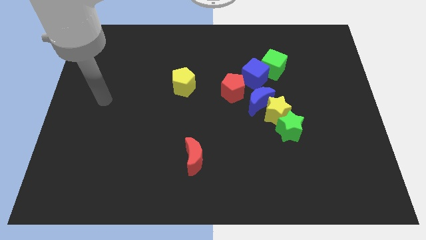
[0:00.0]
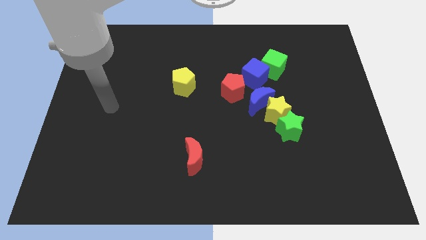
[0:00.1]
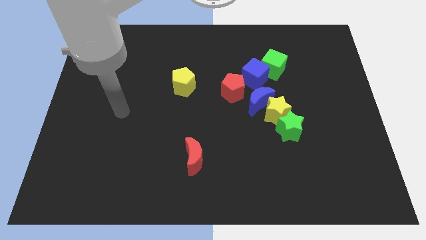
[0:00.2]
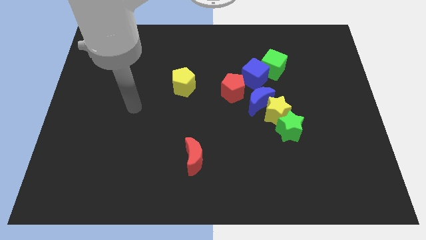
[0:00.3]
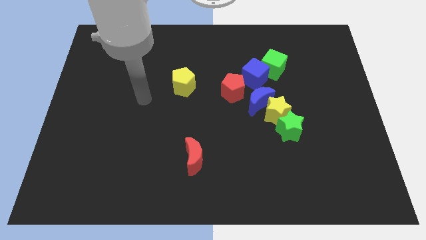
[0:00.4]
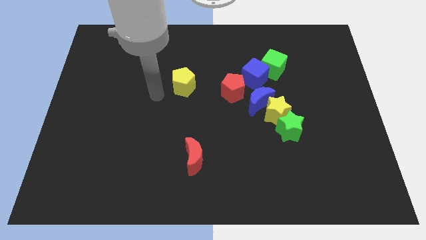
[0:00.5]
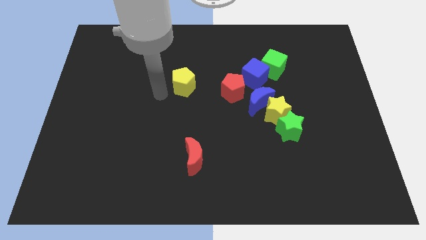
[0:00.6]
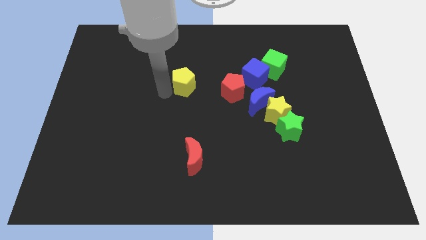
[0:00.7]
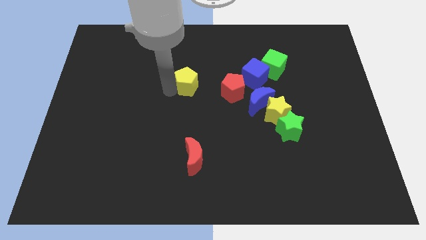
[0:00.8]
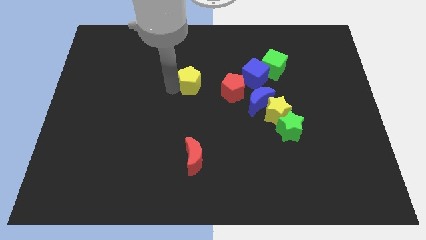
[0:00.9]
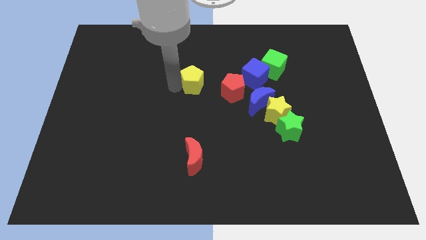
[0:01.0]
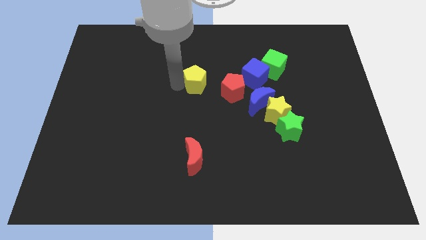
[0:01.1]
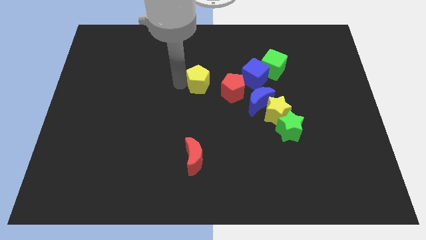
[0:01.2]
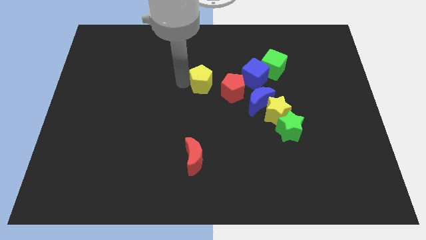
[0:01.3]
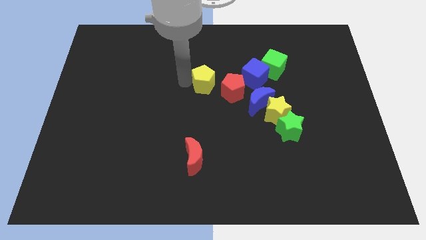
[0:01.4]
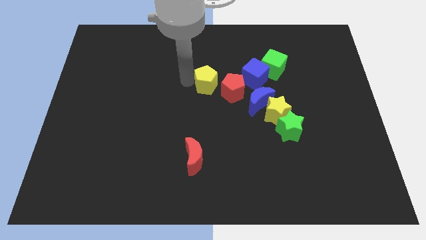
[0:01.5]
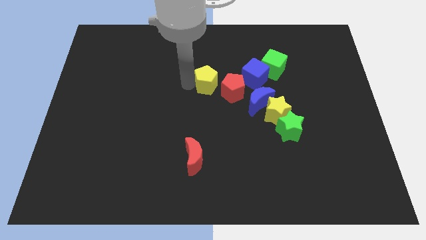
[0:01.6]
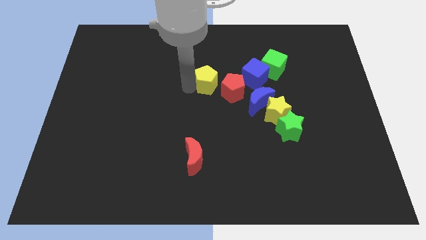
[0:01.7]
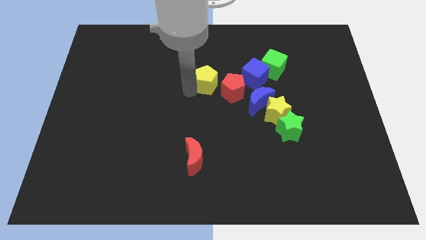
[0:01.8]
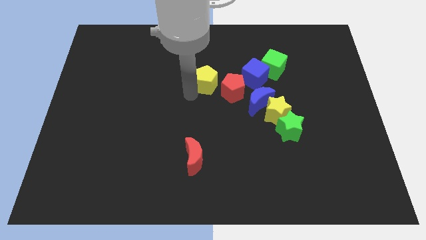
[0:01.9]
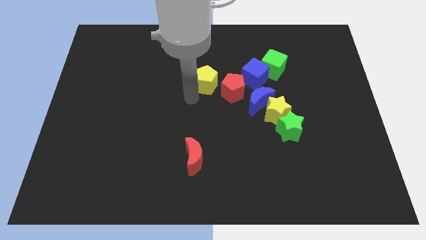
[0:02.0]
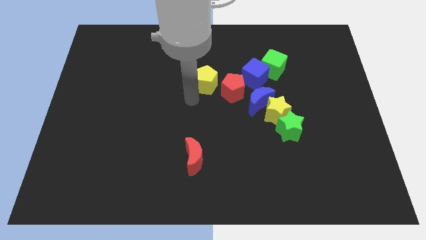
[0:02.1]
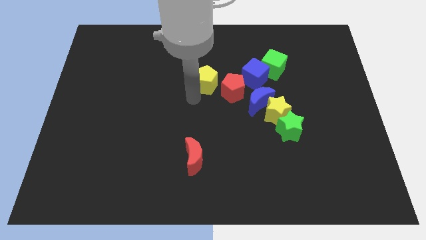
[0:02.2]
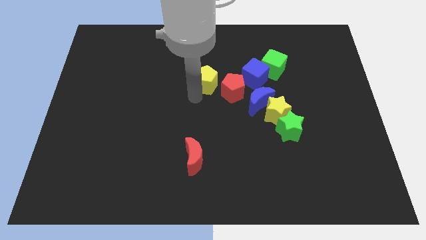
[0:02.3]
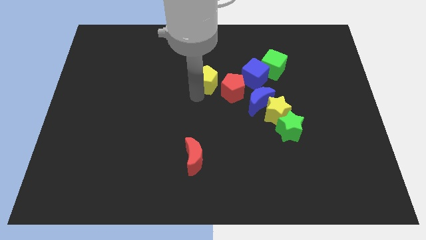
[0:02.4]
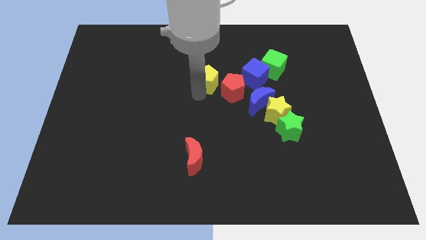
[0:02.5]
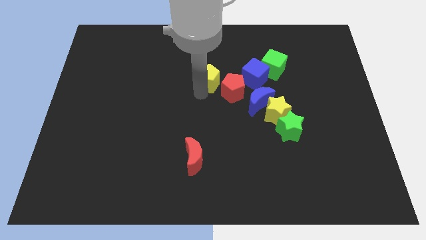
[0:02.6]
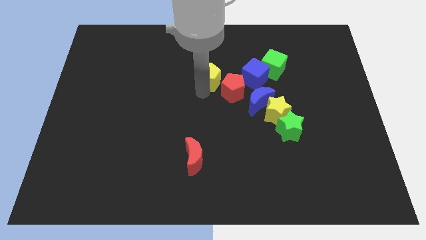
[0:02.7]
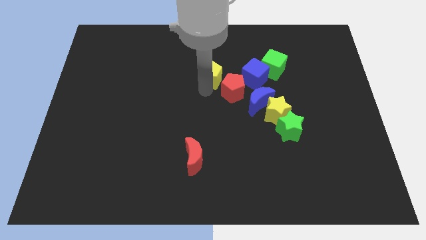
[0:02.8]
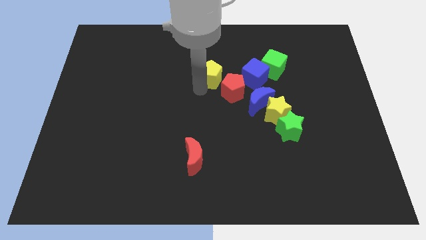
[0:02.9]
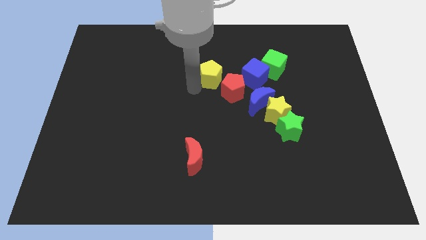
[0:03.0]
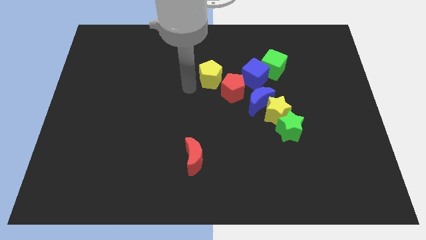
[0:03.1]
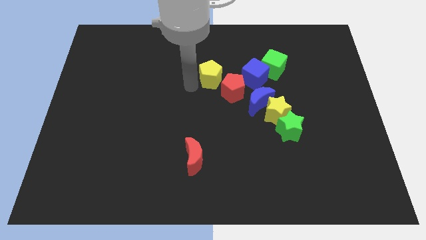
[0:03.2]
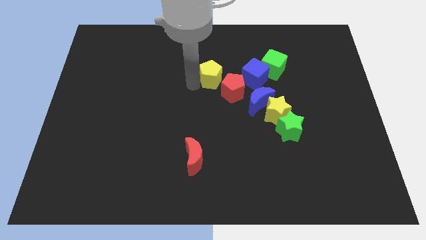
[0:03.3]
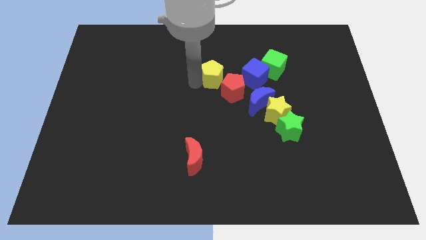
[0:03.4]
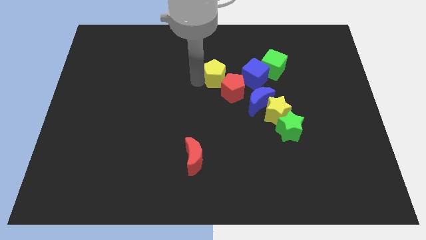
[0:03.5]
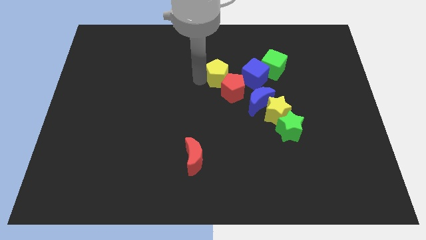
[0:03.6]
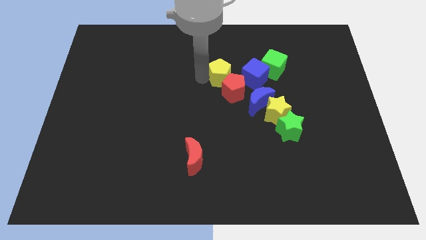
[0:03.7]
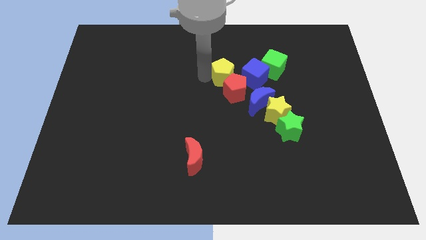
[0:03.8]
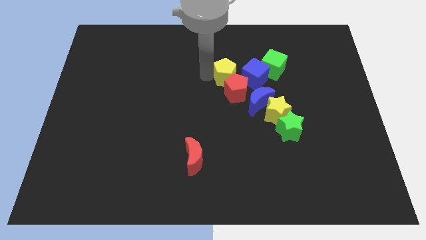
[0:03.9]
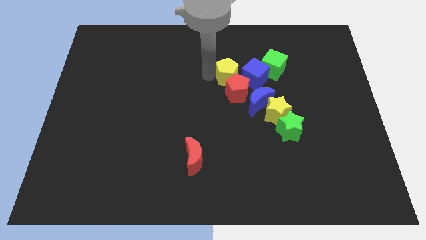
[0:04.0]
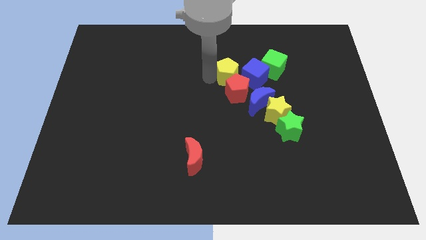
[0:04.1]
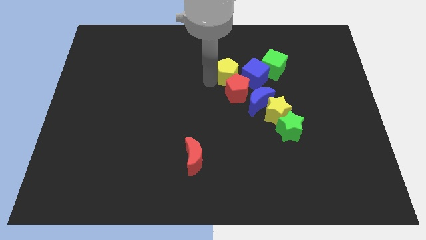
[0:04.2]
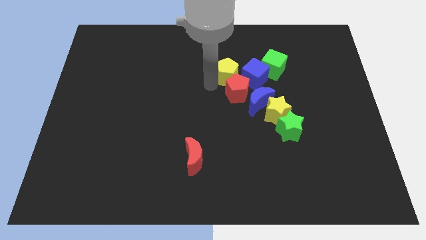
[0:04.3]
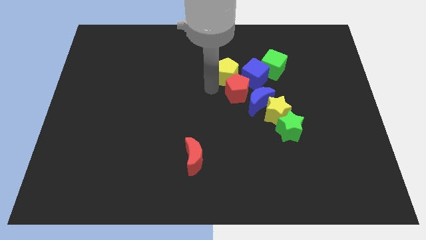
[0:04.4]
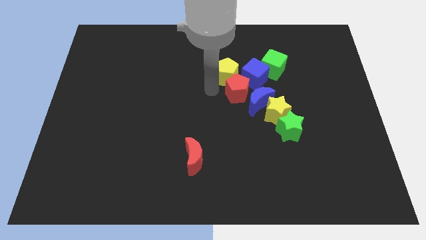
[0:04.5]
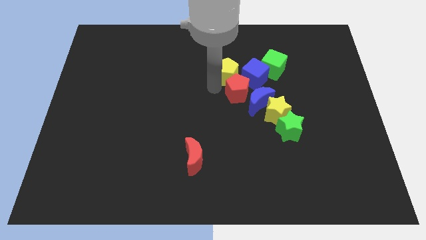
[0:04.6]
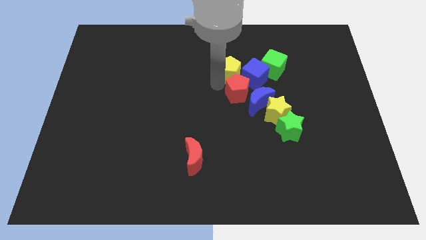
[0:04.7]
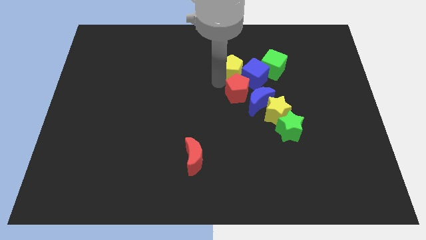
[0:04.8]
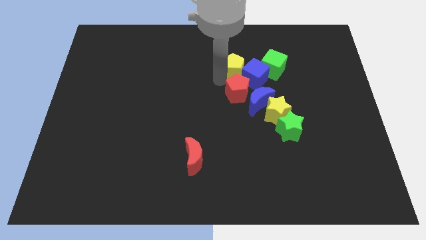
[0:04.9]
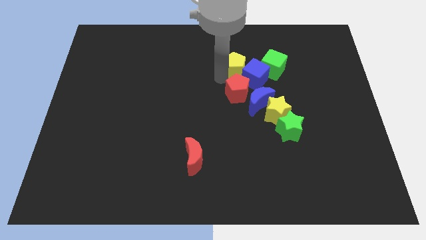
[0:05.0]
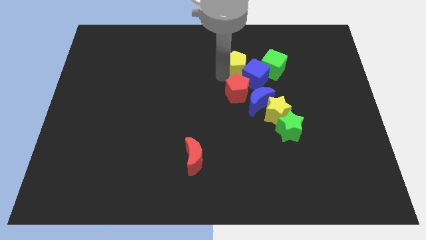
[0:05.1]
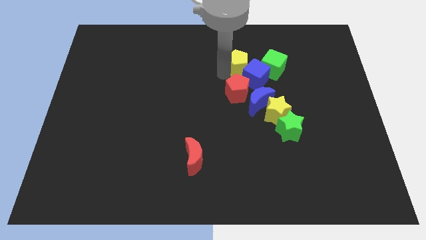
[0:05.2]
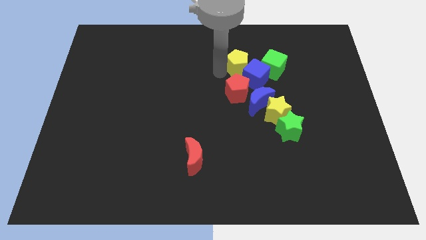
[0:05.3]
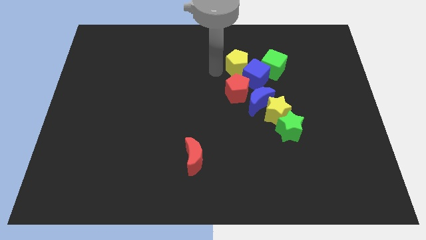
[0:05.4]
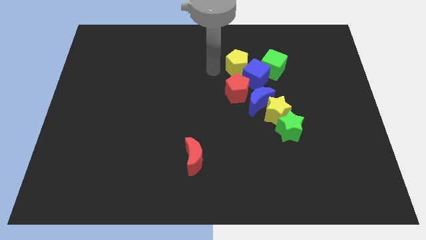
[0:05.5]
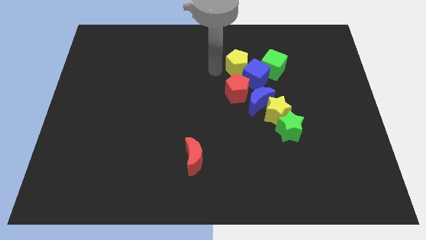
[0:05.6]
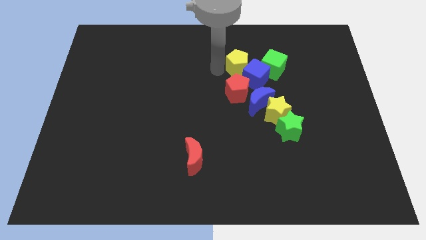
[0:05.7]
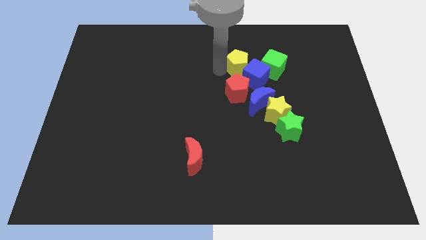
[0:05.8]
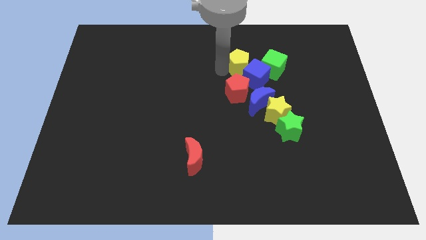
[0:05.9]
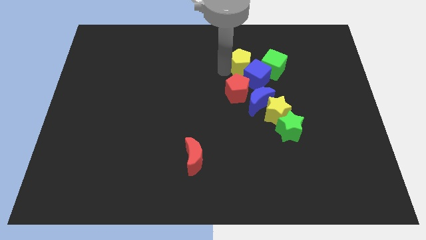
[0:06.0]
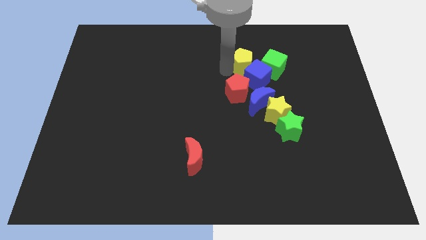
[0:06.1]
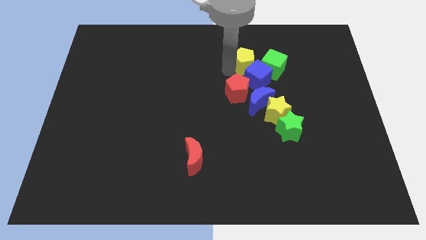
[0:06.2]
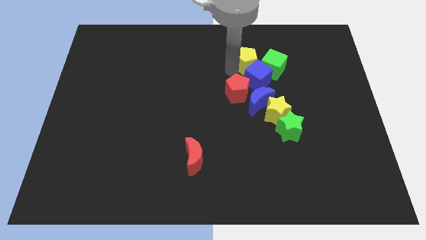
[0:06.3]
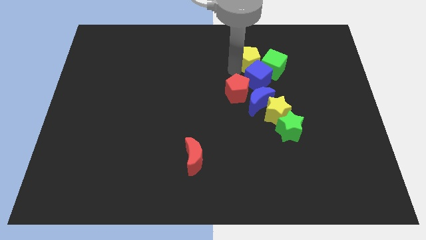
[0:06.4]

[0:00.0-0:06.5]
slide the yellow pentagon to the green cube

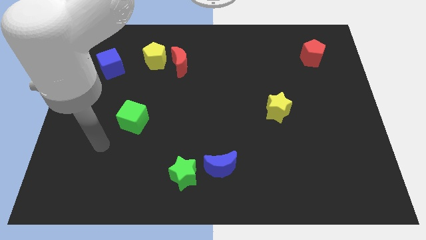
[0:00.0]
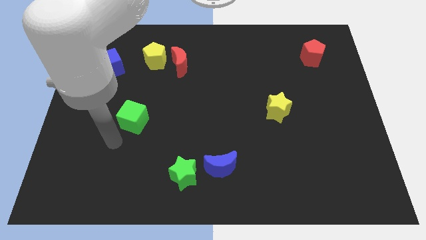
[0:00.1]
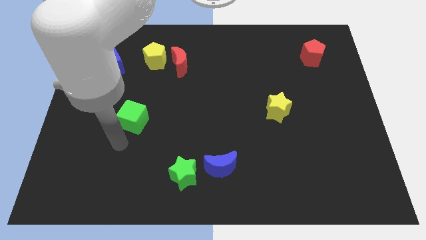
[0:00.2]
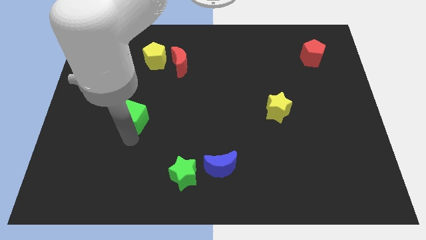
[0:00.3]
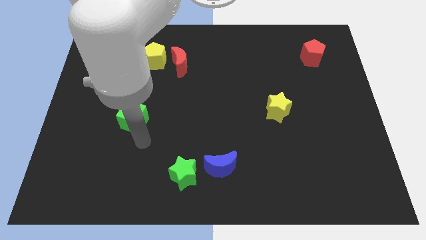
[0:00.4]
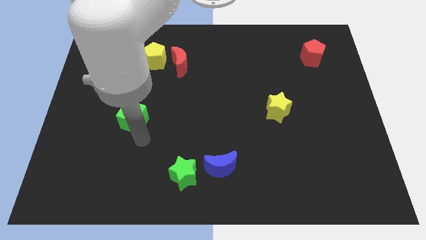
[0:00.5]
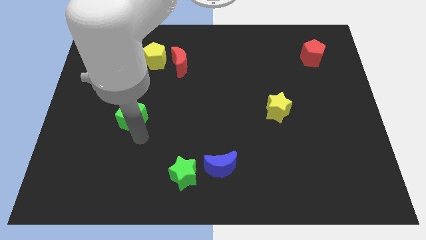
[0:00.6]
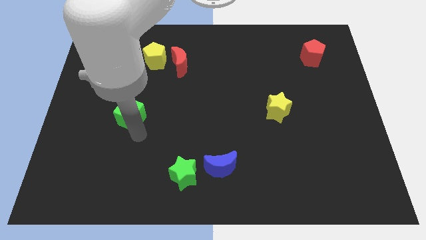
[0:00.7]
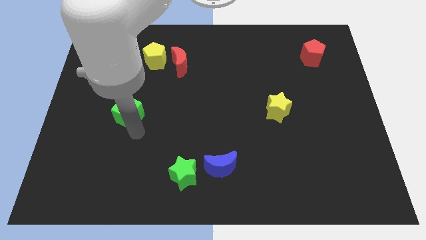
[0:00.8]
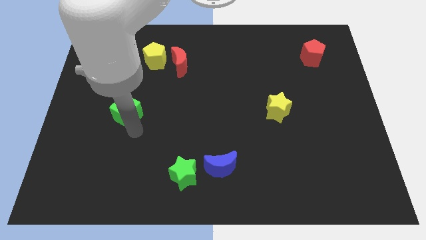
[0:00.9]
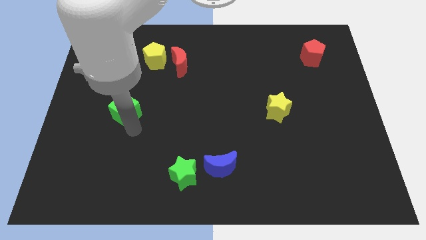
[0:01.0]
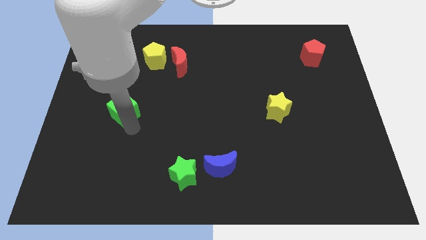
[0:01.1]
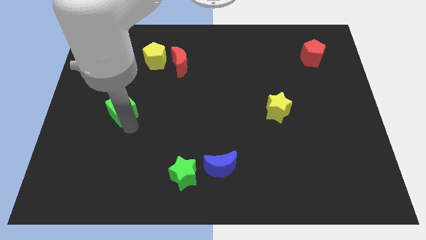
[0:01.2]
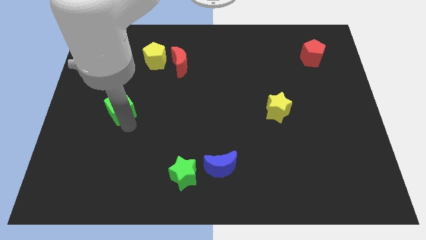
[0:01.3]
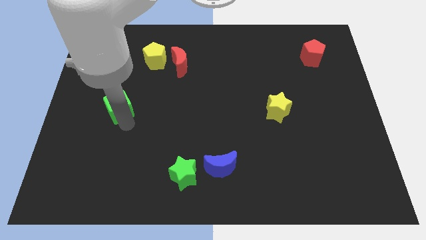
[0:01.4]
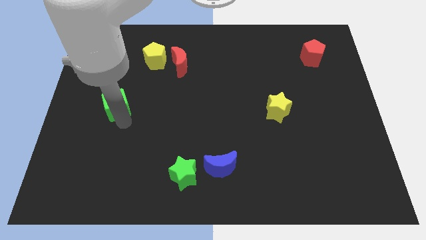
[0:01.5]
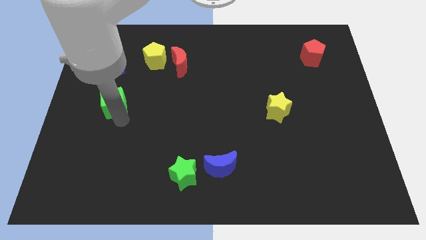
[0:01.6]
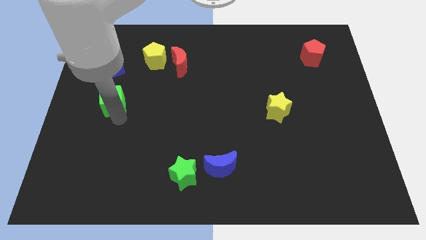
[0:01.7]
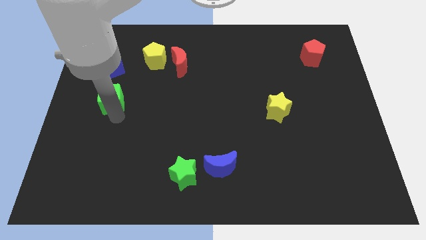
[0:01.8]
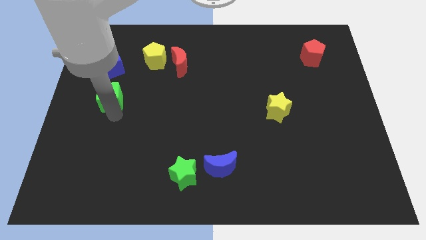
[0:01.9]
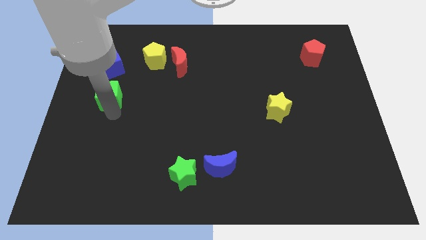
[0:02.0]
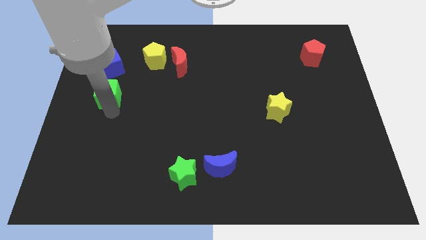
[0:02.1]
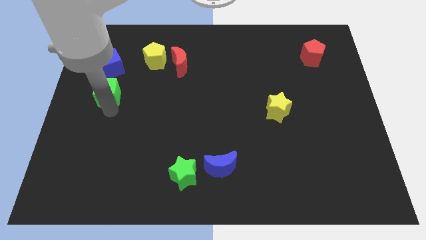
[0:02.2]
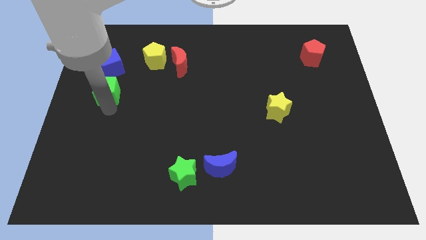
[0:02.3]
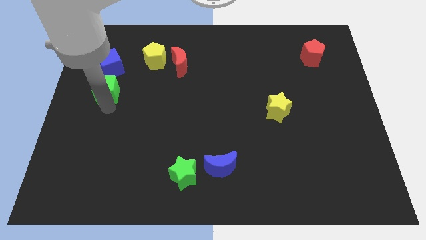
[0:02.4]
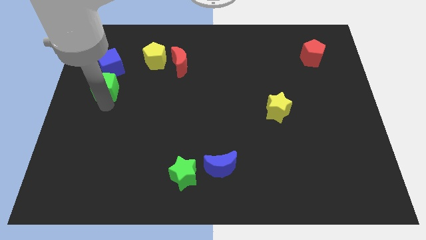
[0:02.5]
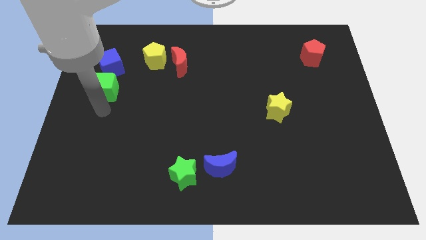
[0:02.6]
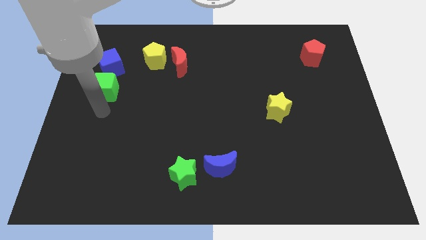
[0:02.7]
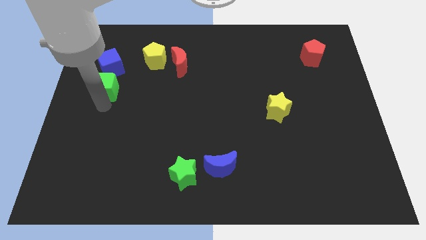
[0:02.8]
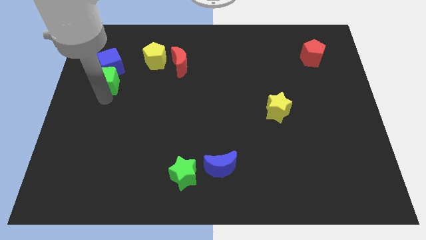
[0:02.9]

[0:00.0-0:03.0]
move the green cube close to the blue cube
